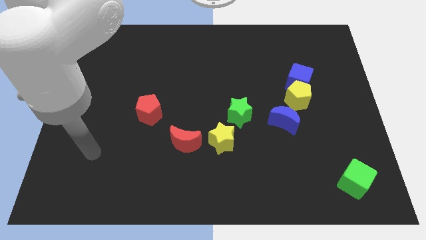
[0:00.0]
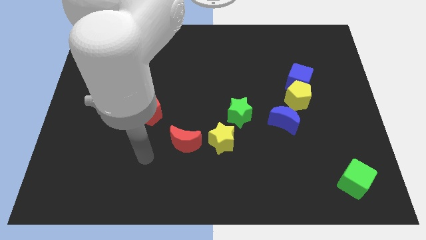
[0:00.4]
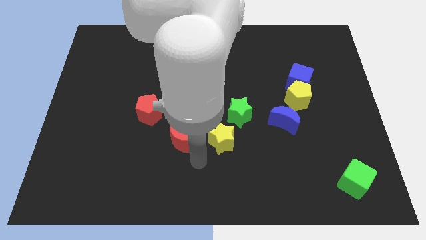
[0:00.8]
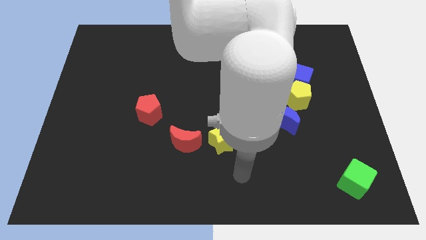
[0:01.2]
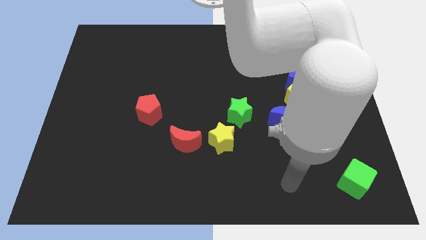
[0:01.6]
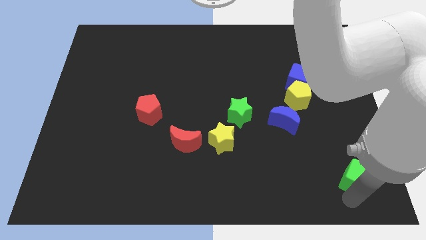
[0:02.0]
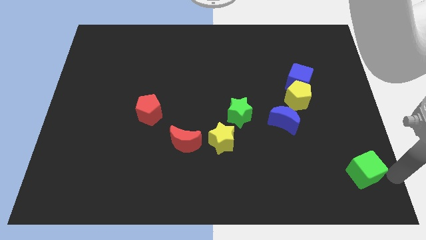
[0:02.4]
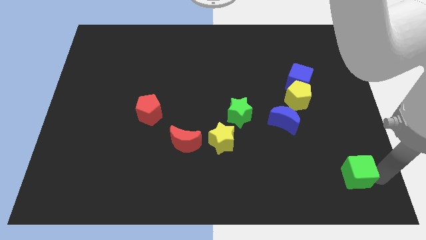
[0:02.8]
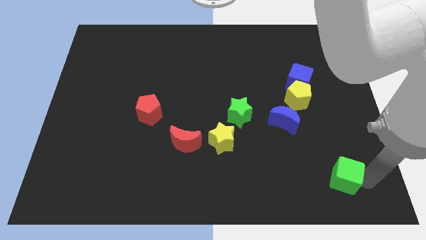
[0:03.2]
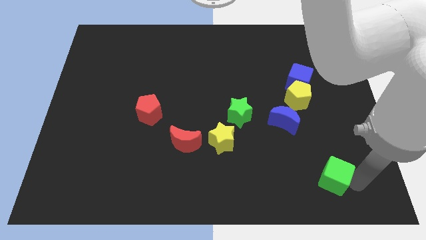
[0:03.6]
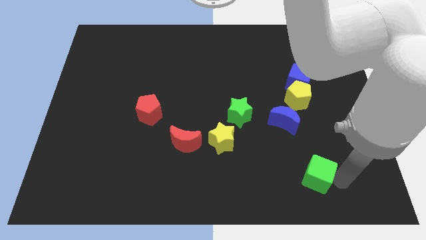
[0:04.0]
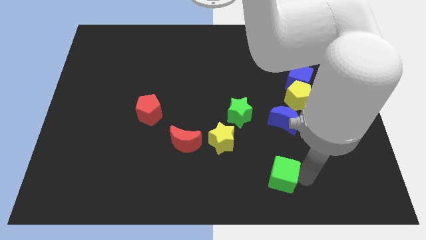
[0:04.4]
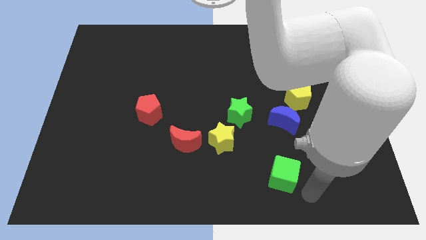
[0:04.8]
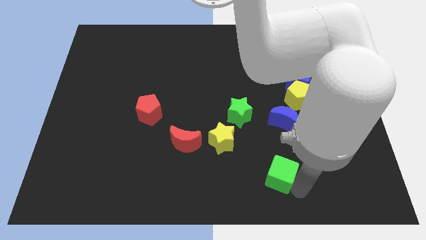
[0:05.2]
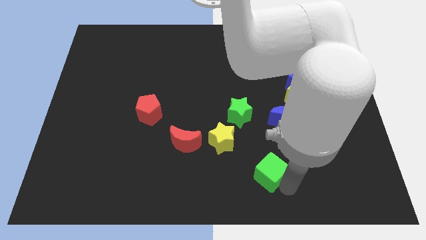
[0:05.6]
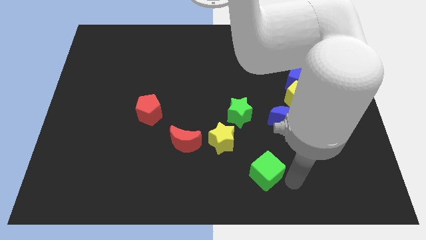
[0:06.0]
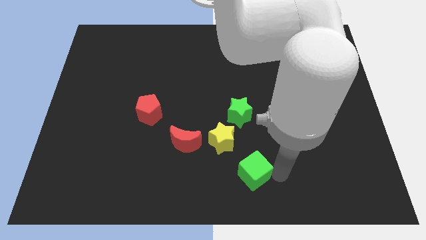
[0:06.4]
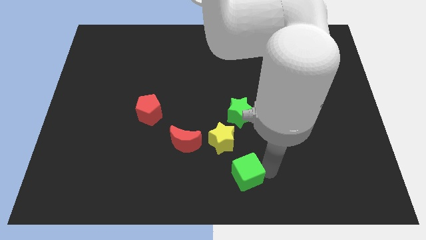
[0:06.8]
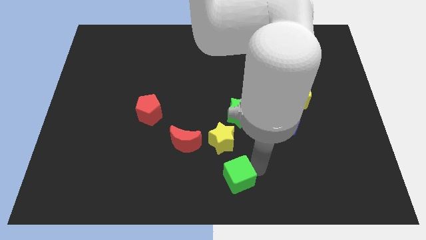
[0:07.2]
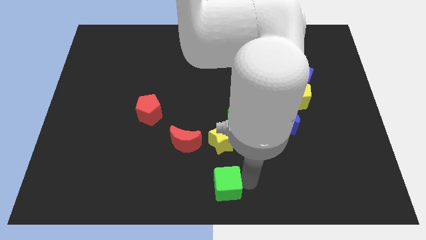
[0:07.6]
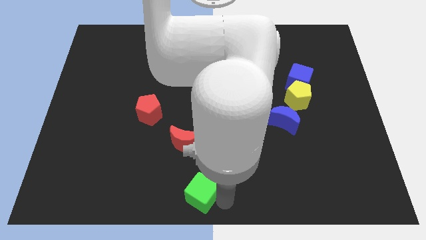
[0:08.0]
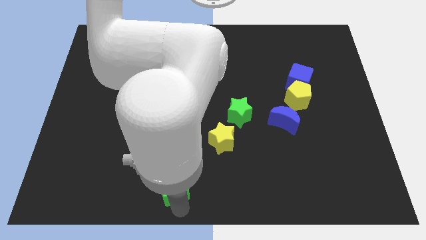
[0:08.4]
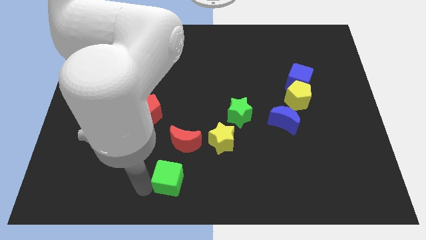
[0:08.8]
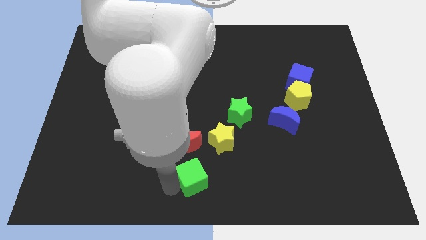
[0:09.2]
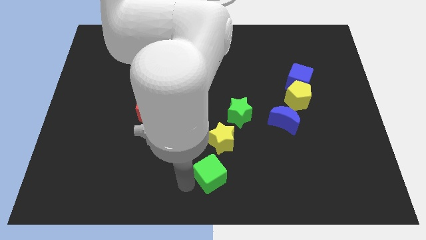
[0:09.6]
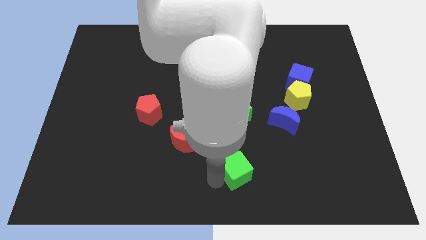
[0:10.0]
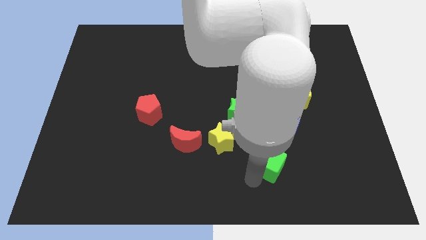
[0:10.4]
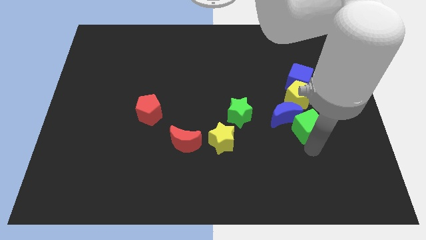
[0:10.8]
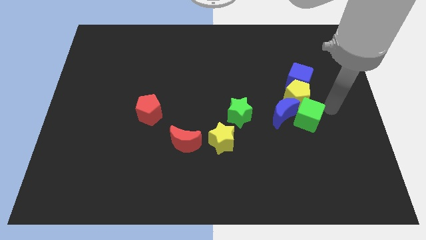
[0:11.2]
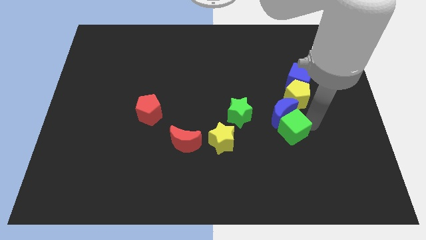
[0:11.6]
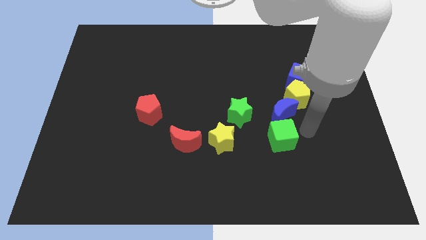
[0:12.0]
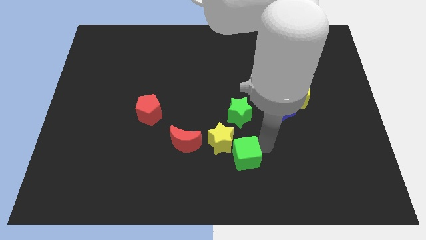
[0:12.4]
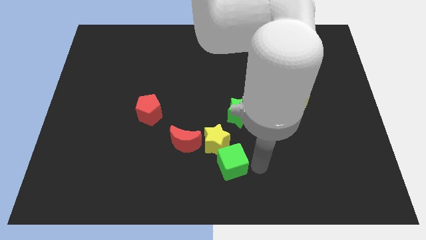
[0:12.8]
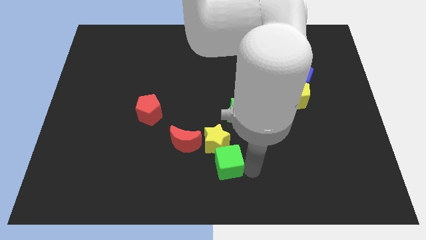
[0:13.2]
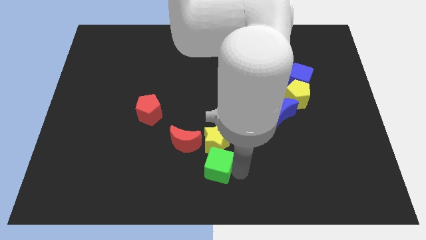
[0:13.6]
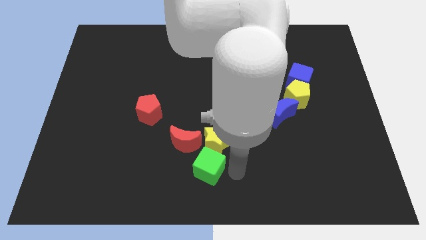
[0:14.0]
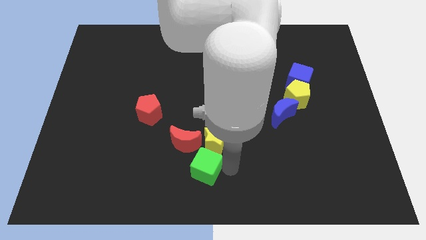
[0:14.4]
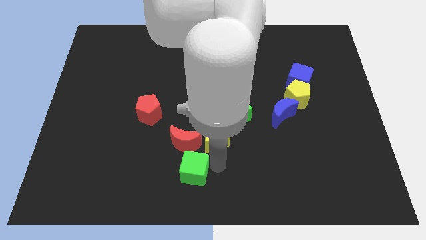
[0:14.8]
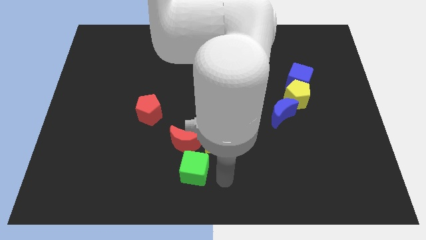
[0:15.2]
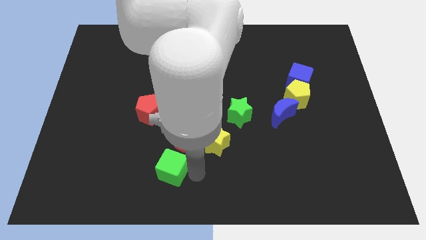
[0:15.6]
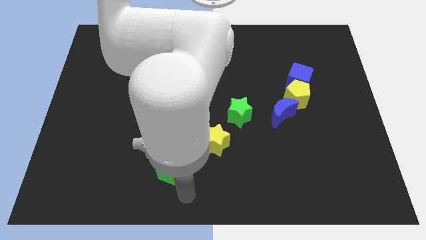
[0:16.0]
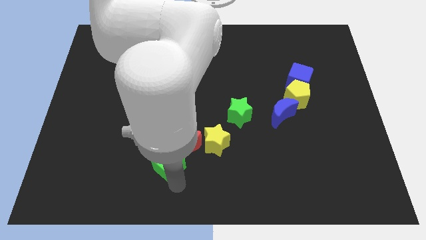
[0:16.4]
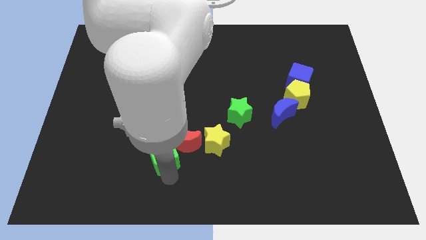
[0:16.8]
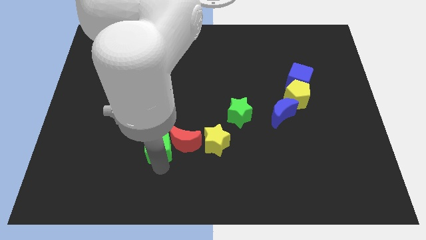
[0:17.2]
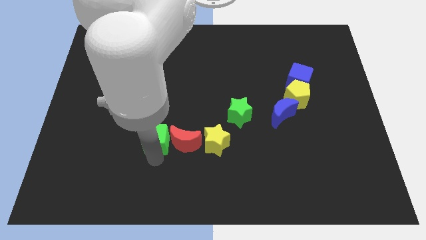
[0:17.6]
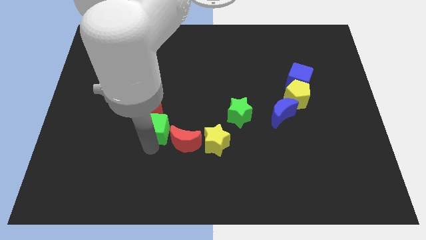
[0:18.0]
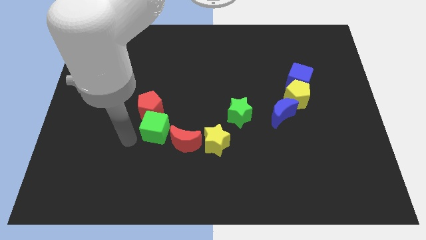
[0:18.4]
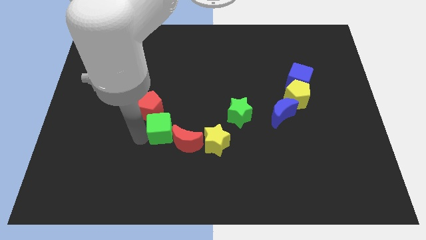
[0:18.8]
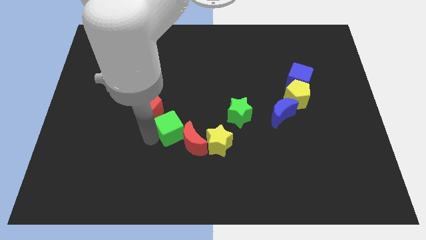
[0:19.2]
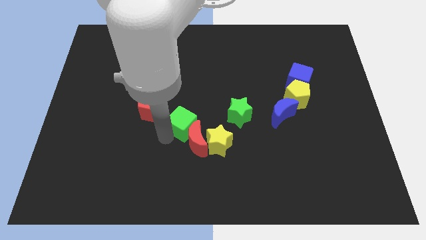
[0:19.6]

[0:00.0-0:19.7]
put the green cube to the right side of the red pentagon

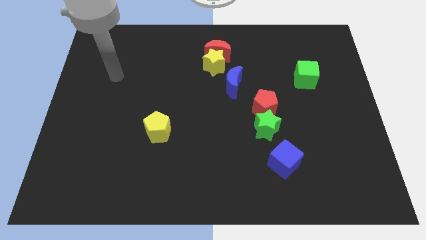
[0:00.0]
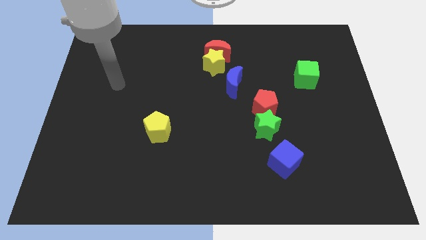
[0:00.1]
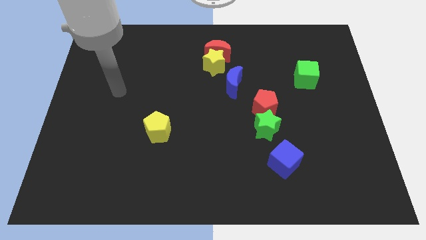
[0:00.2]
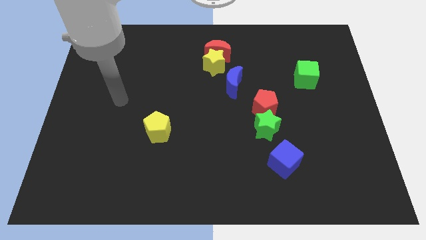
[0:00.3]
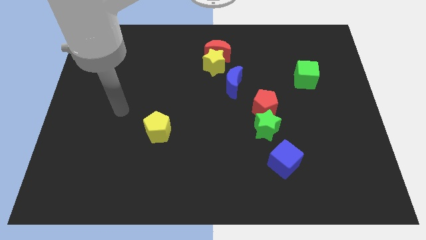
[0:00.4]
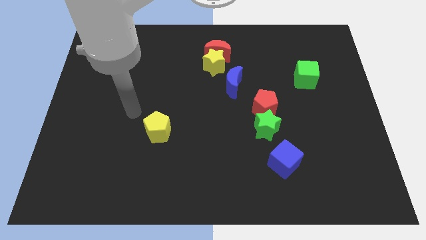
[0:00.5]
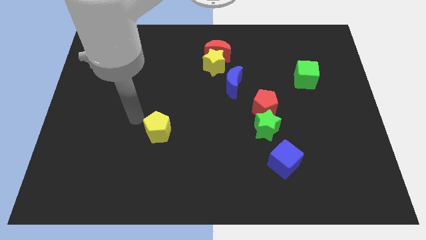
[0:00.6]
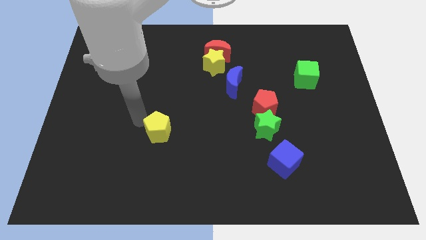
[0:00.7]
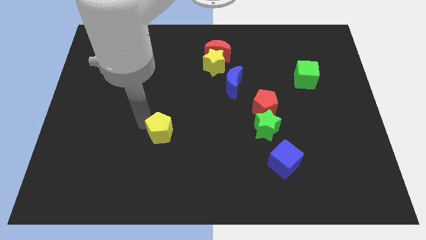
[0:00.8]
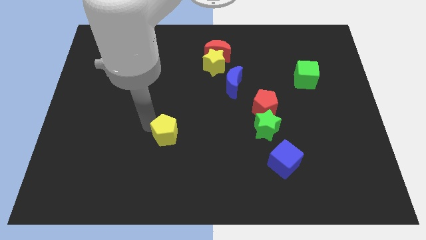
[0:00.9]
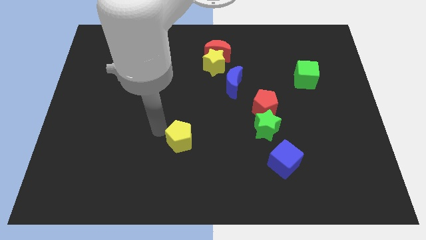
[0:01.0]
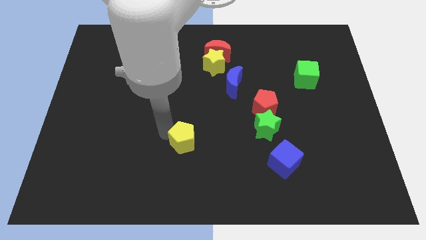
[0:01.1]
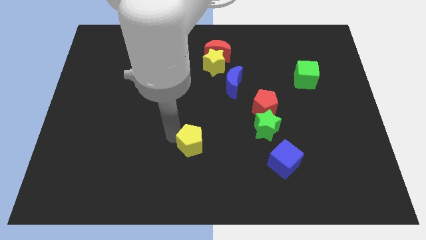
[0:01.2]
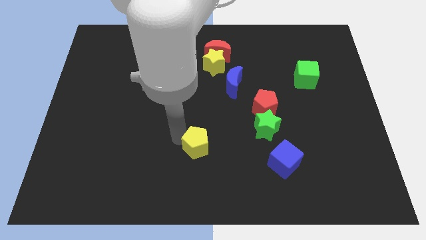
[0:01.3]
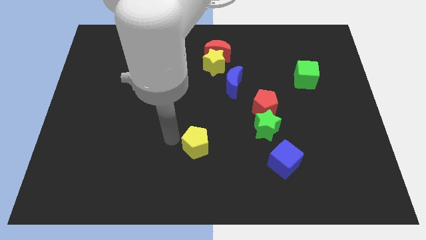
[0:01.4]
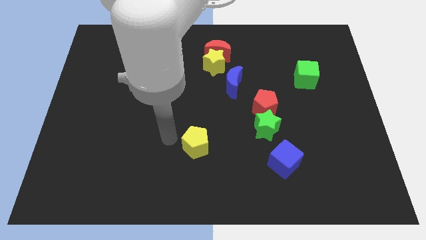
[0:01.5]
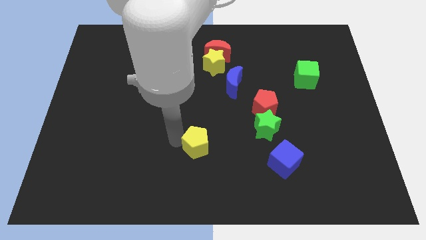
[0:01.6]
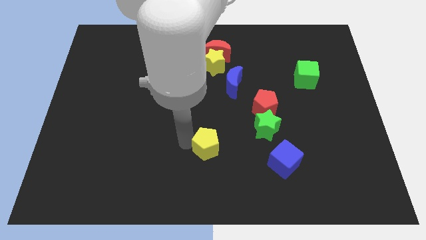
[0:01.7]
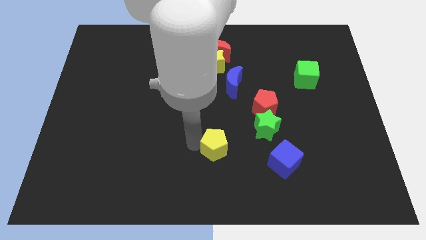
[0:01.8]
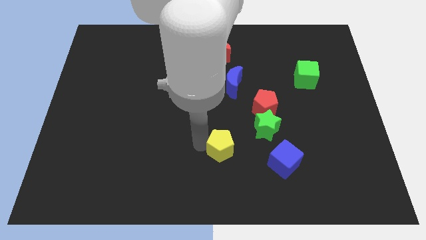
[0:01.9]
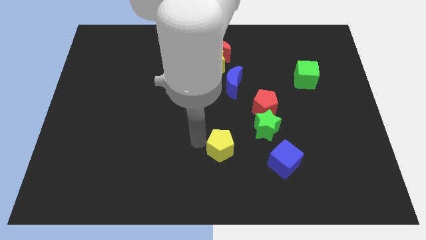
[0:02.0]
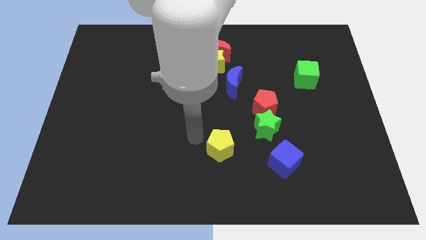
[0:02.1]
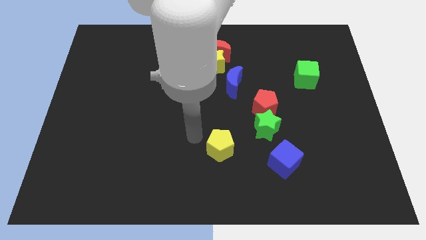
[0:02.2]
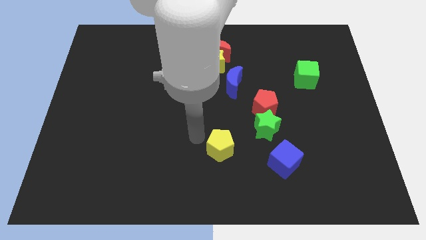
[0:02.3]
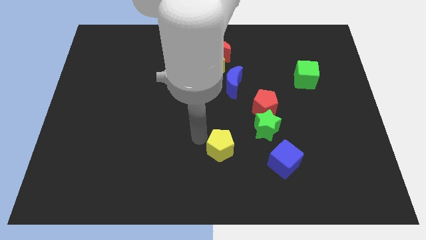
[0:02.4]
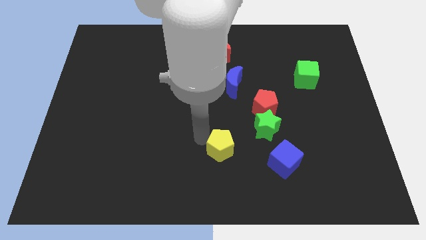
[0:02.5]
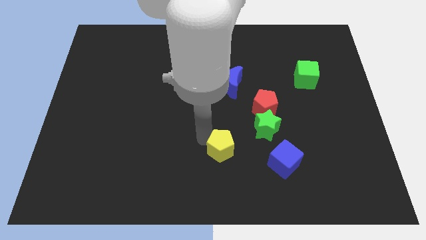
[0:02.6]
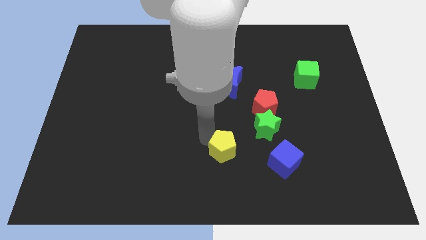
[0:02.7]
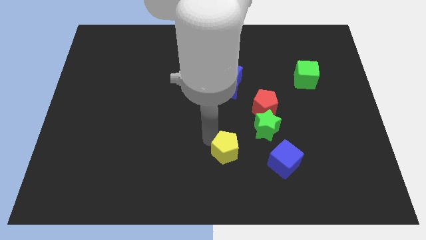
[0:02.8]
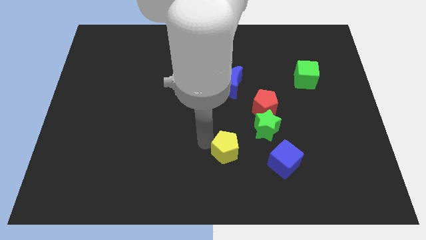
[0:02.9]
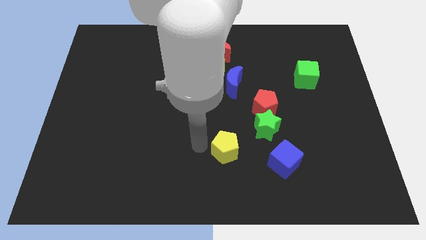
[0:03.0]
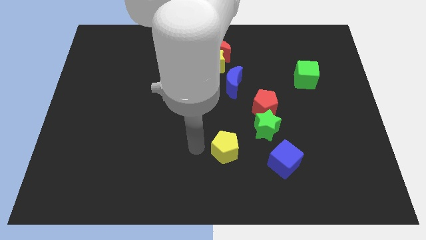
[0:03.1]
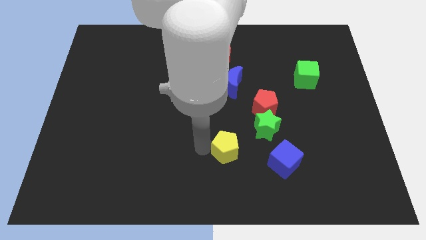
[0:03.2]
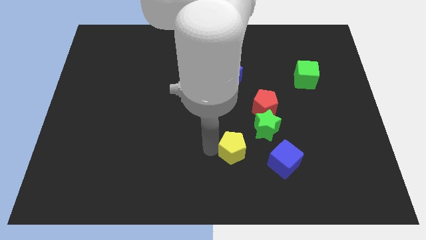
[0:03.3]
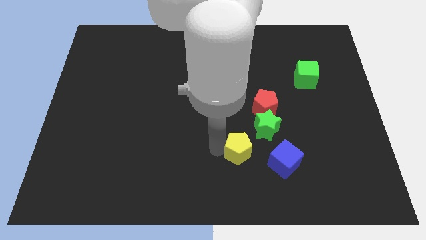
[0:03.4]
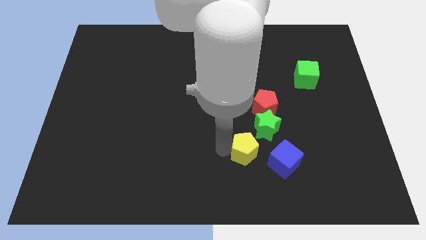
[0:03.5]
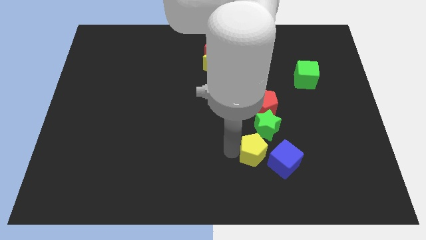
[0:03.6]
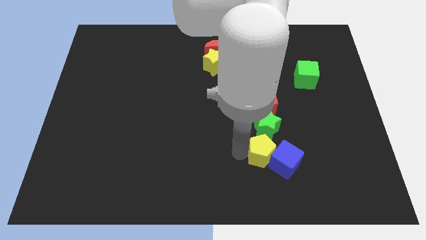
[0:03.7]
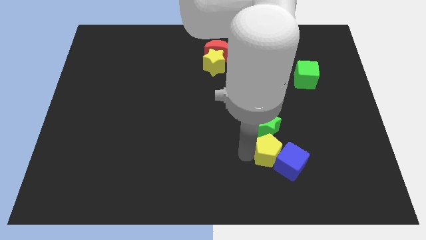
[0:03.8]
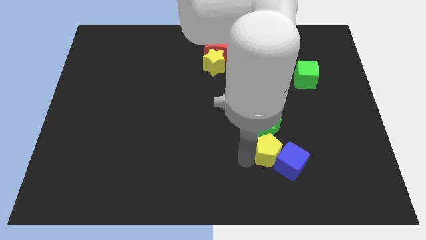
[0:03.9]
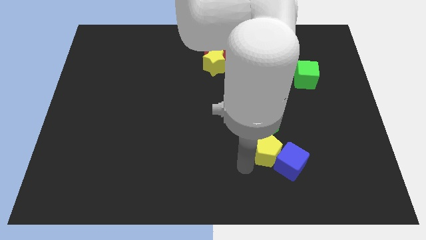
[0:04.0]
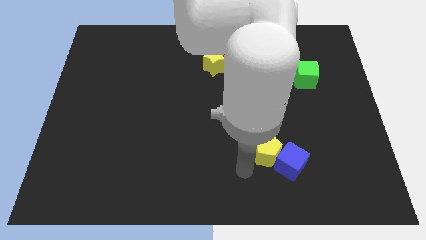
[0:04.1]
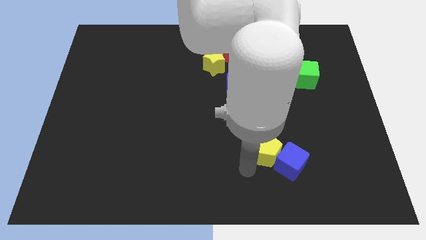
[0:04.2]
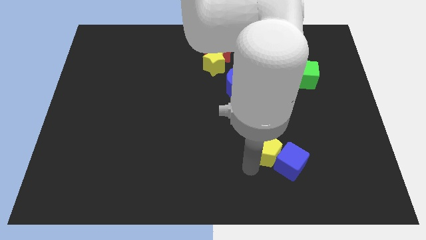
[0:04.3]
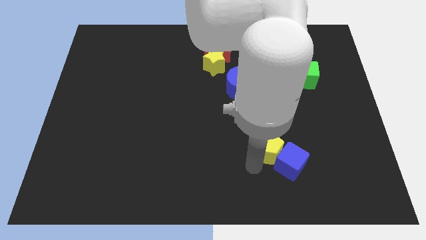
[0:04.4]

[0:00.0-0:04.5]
push the yellow pentagon to the top side of the blue cube
